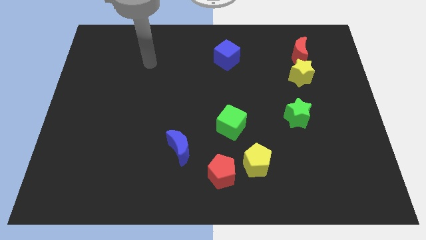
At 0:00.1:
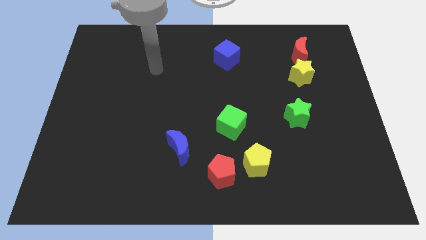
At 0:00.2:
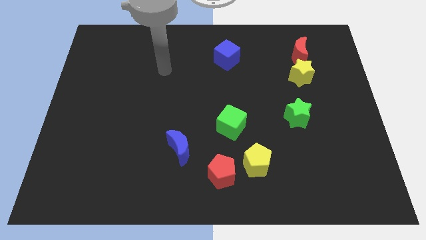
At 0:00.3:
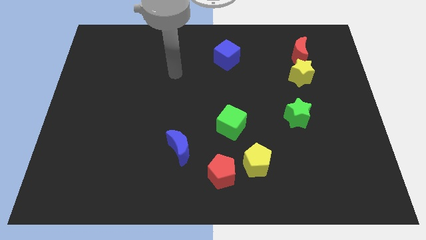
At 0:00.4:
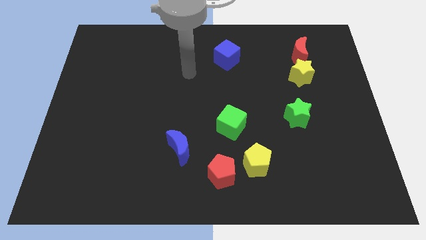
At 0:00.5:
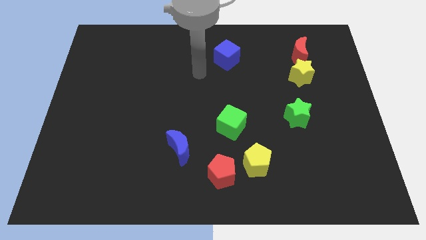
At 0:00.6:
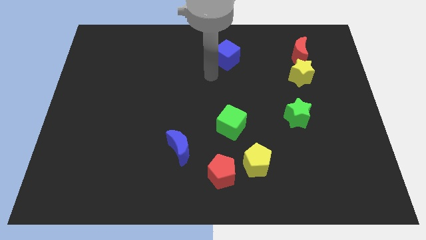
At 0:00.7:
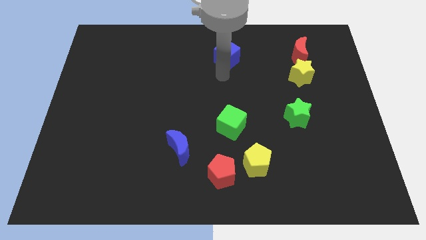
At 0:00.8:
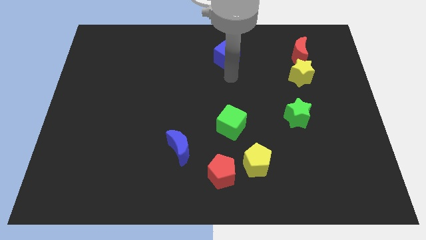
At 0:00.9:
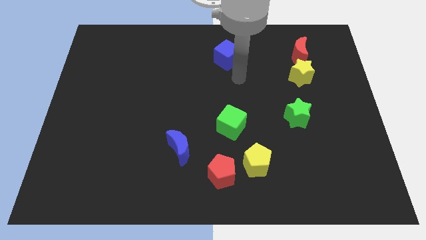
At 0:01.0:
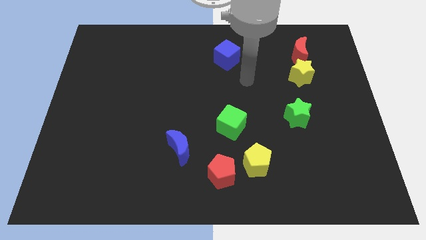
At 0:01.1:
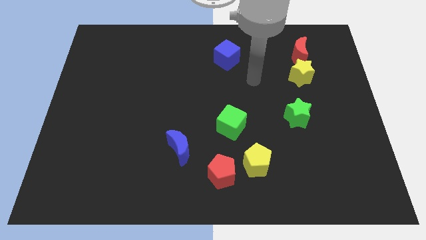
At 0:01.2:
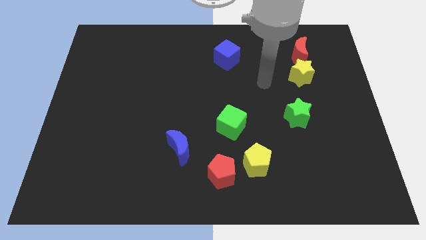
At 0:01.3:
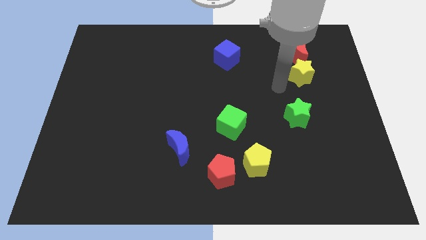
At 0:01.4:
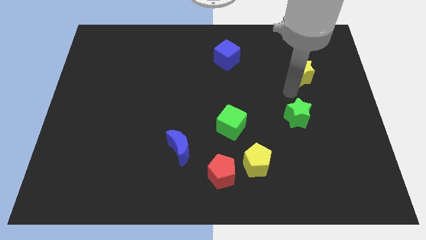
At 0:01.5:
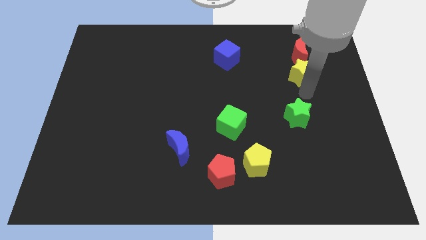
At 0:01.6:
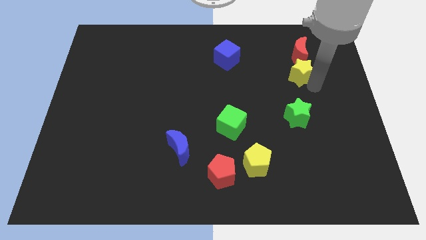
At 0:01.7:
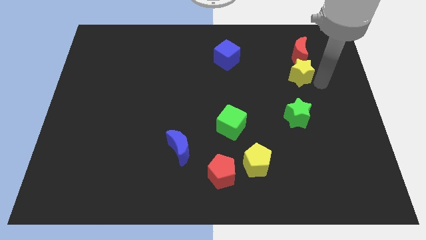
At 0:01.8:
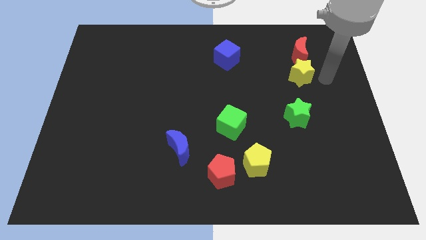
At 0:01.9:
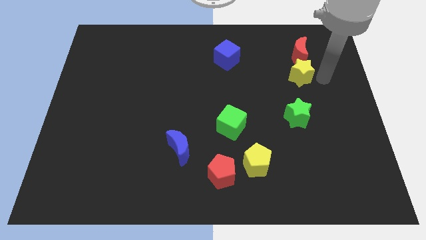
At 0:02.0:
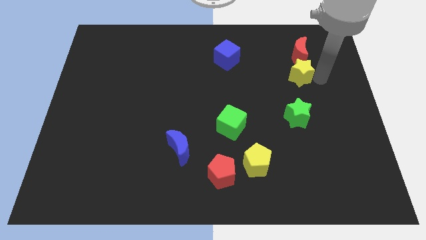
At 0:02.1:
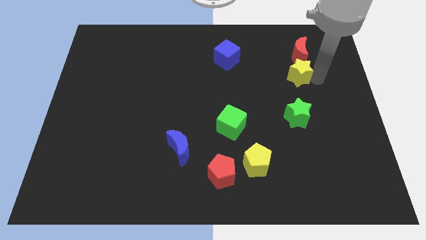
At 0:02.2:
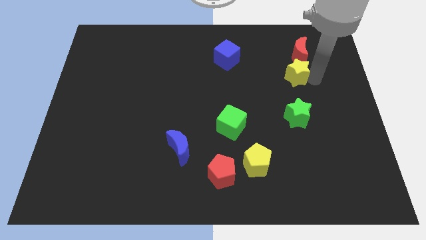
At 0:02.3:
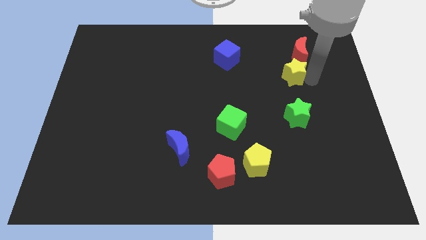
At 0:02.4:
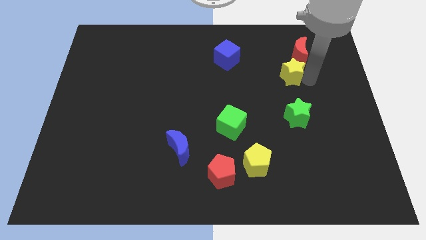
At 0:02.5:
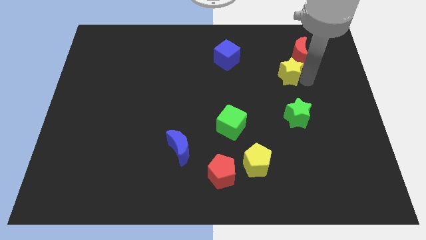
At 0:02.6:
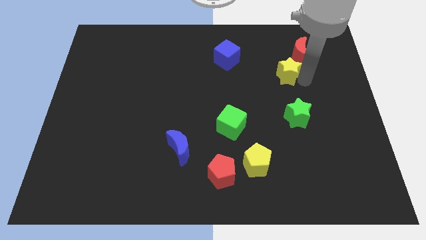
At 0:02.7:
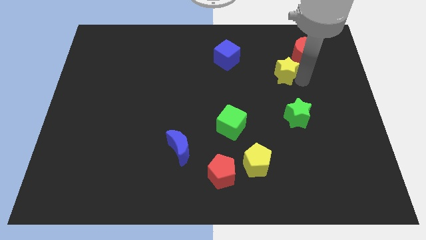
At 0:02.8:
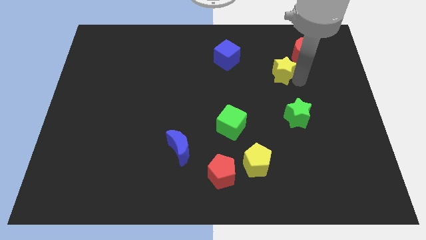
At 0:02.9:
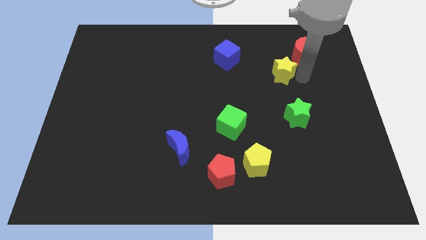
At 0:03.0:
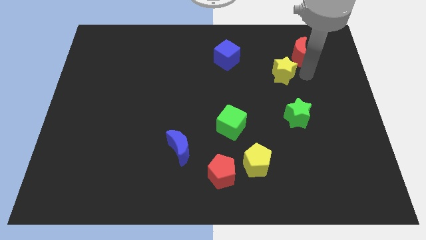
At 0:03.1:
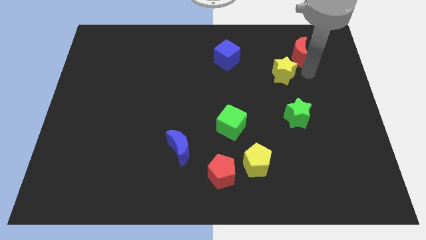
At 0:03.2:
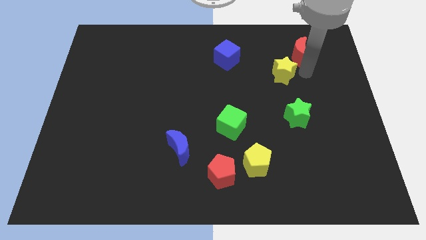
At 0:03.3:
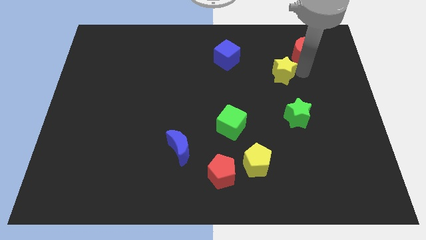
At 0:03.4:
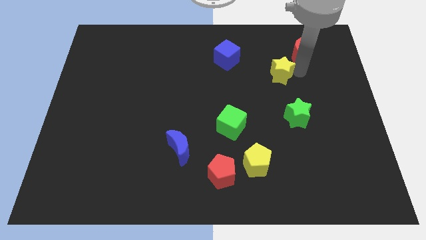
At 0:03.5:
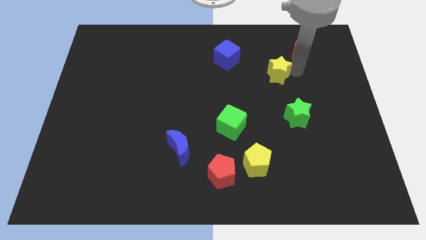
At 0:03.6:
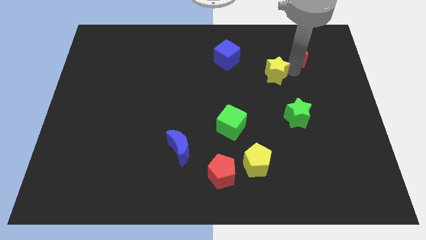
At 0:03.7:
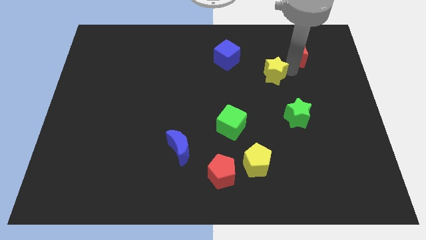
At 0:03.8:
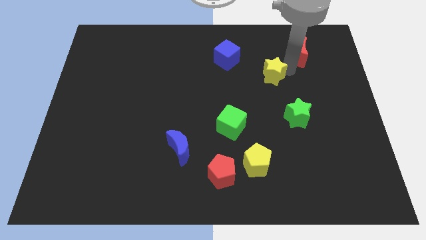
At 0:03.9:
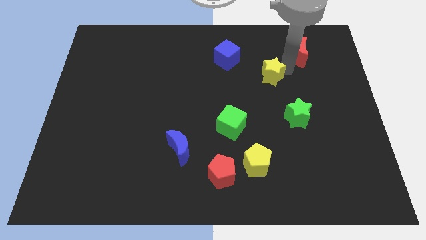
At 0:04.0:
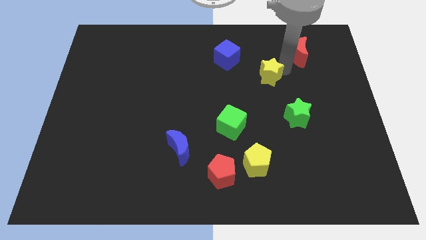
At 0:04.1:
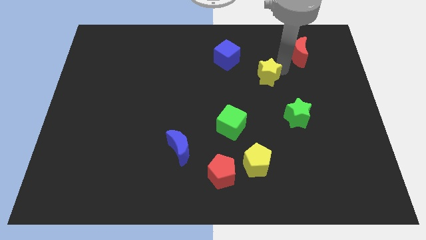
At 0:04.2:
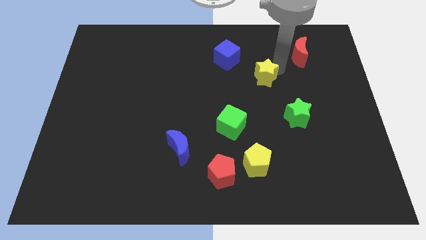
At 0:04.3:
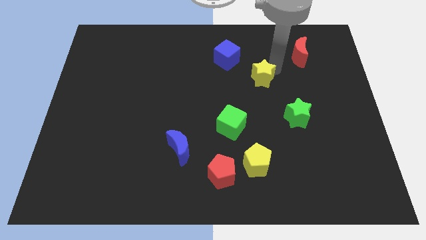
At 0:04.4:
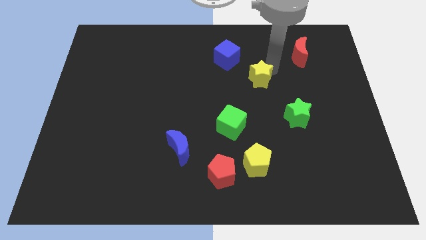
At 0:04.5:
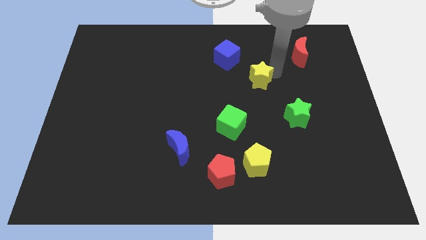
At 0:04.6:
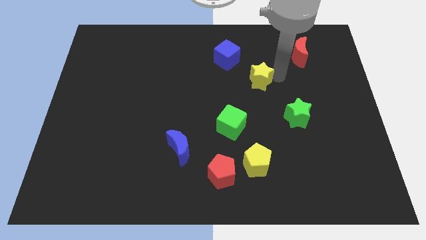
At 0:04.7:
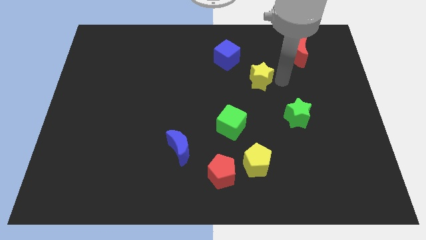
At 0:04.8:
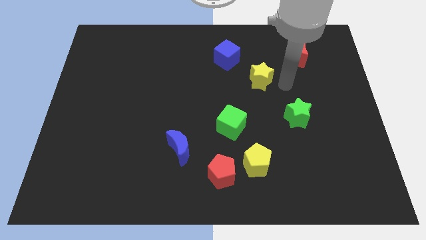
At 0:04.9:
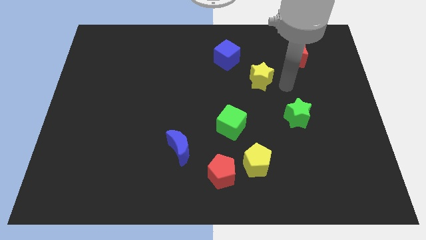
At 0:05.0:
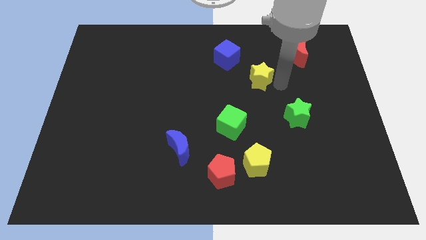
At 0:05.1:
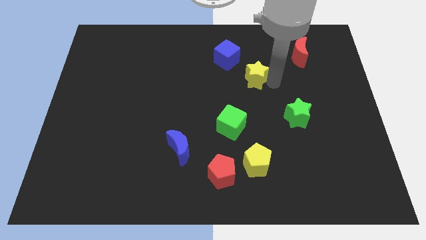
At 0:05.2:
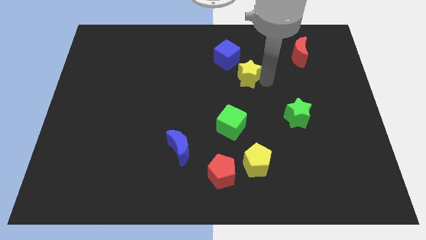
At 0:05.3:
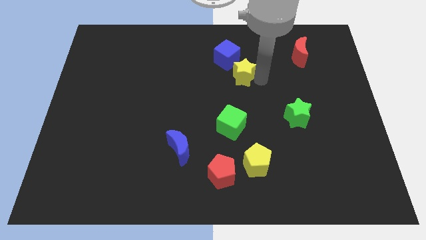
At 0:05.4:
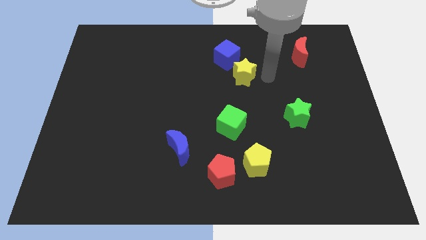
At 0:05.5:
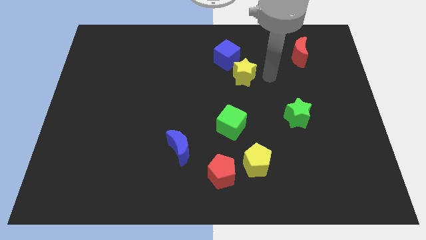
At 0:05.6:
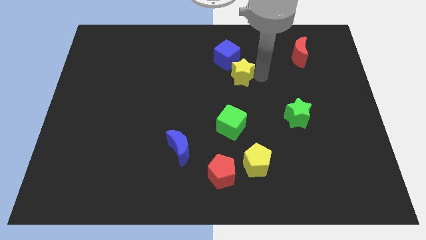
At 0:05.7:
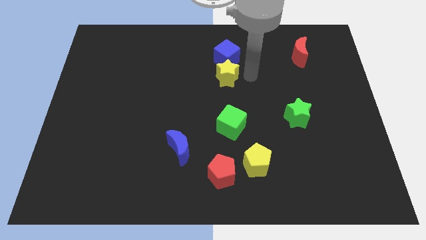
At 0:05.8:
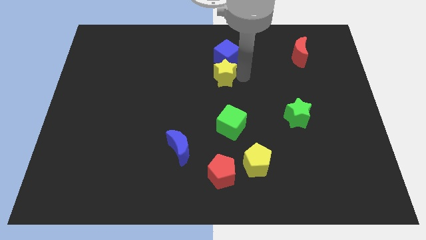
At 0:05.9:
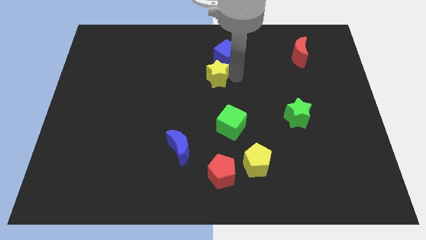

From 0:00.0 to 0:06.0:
move the yellow star left

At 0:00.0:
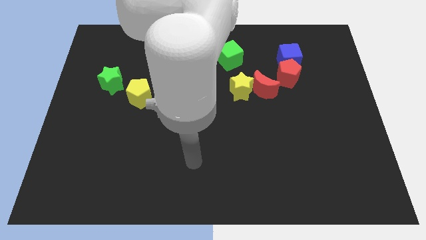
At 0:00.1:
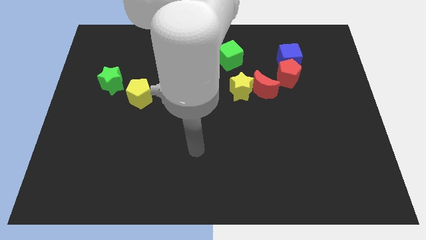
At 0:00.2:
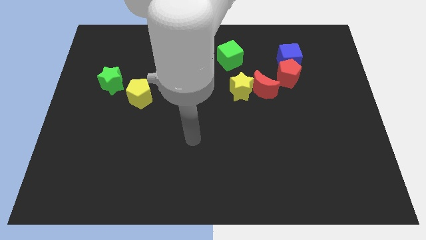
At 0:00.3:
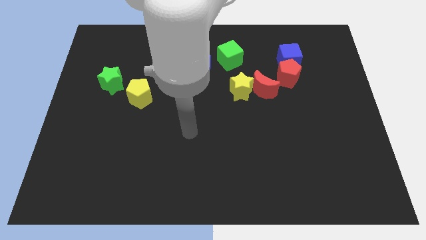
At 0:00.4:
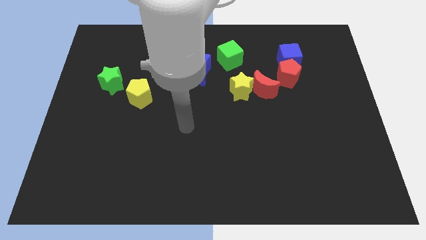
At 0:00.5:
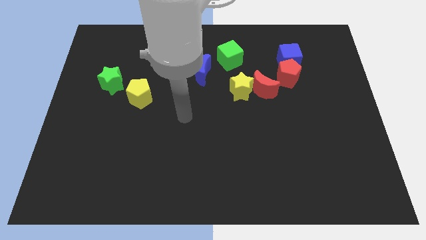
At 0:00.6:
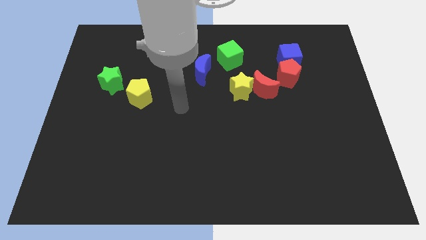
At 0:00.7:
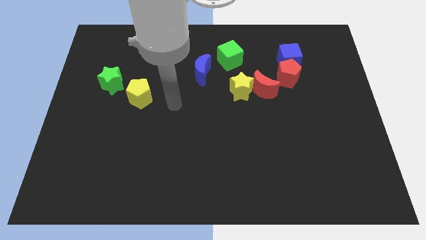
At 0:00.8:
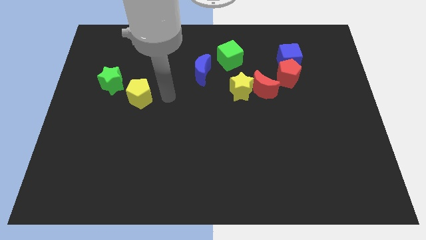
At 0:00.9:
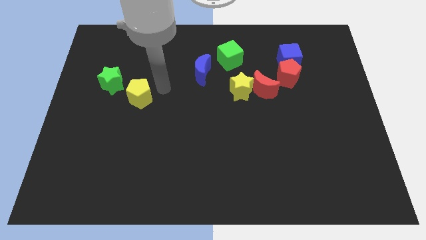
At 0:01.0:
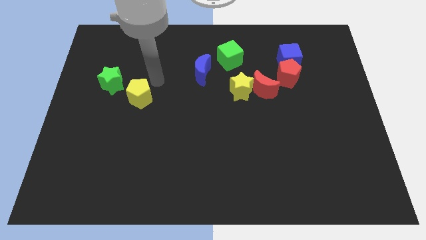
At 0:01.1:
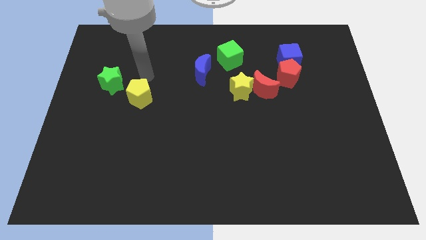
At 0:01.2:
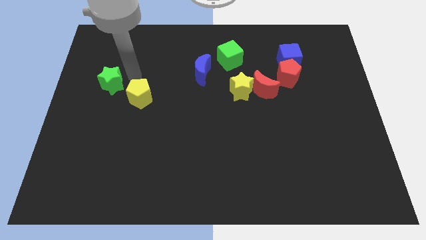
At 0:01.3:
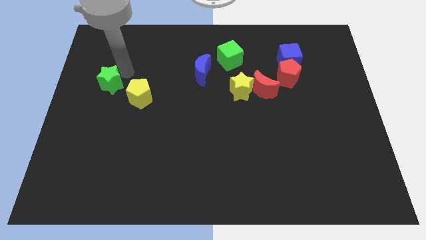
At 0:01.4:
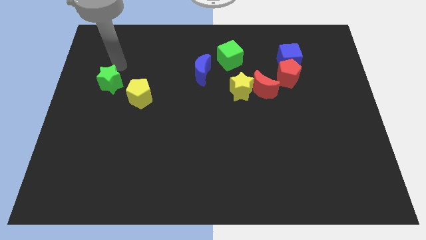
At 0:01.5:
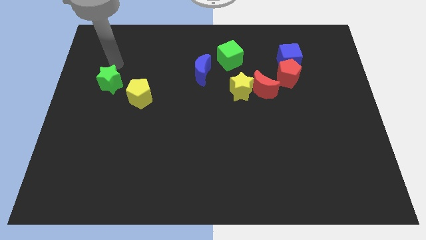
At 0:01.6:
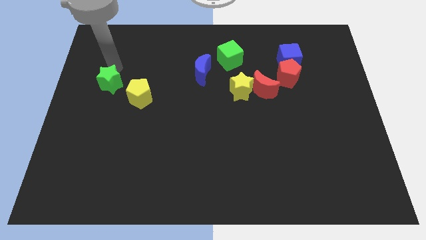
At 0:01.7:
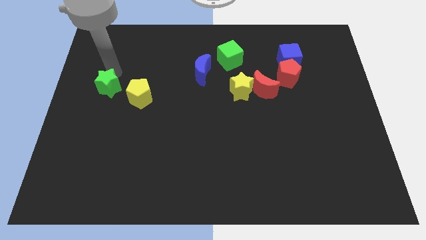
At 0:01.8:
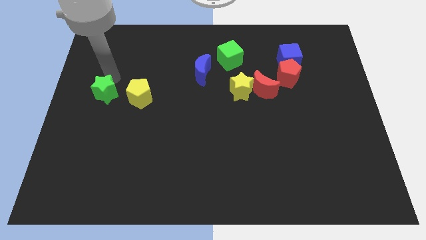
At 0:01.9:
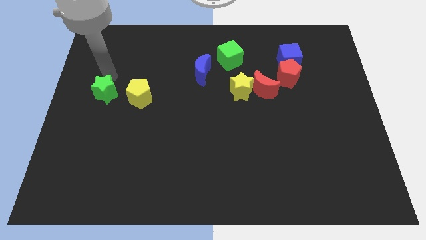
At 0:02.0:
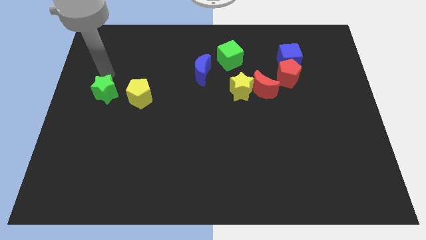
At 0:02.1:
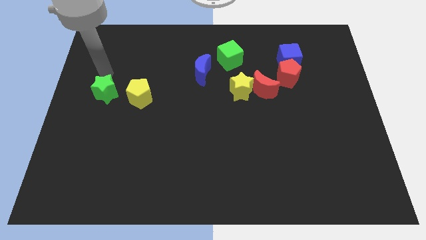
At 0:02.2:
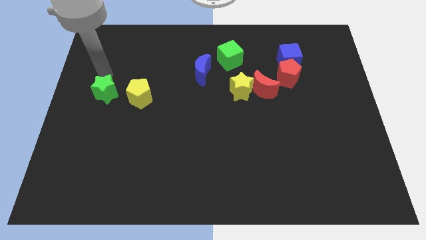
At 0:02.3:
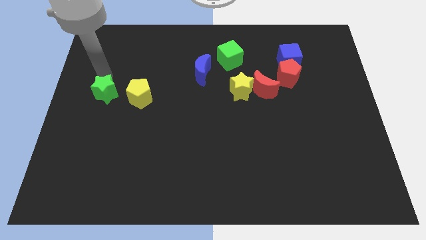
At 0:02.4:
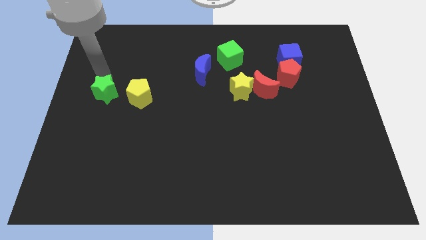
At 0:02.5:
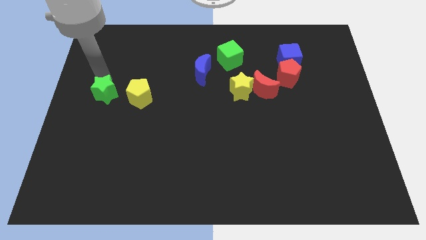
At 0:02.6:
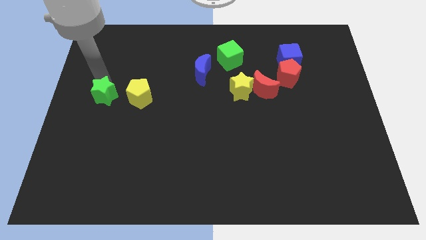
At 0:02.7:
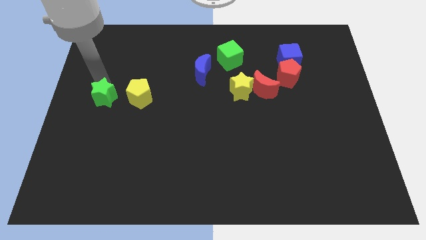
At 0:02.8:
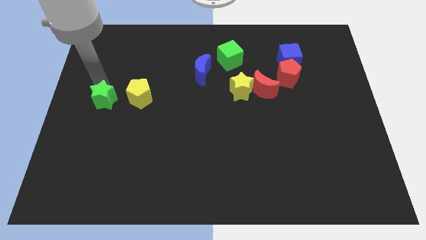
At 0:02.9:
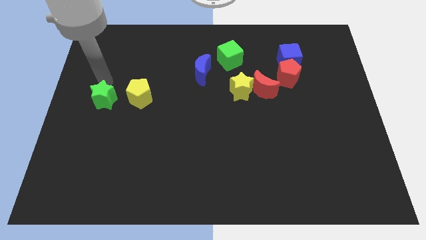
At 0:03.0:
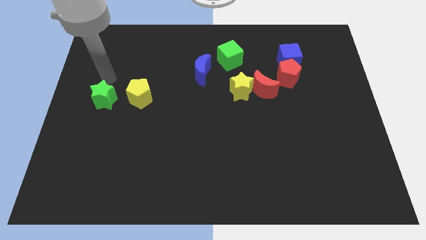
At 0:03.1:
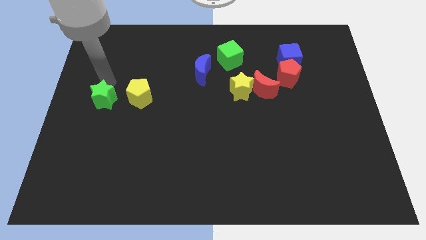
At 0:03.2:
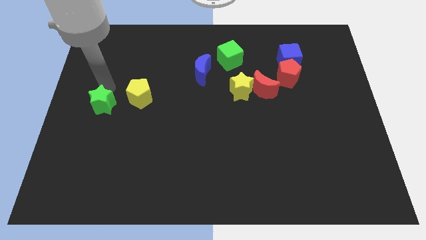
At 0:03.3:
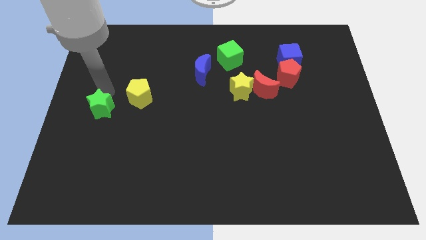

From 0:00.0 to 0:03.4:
slide the green star down somewhat
